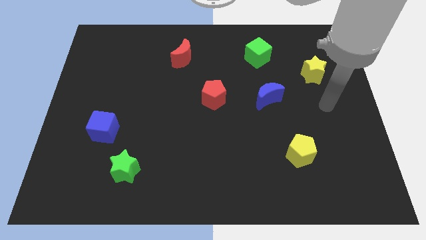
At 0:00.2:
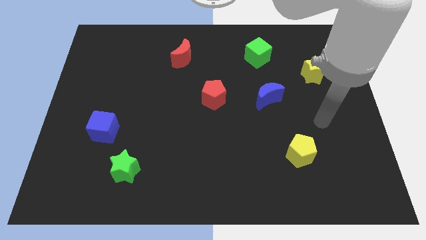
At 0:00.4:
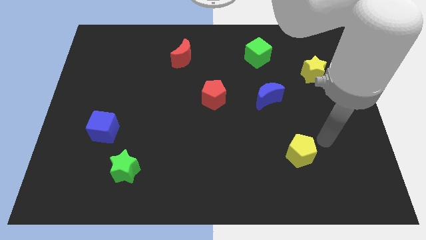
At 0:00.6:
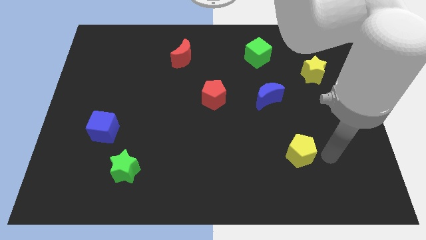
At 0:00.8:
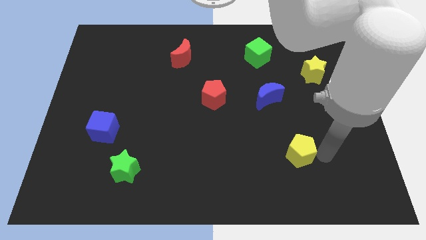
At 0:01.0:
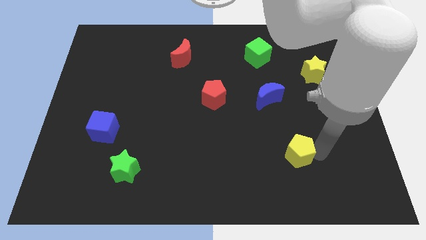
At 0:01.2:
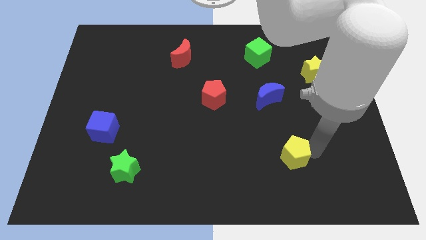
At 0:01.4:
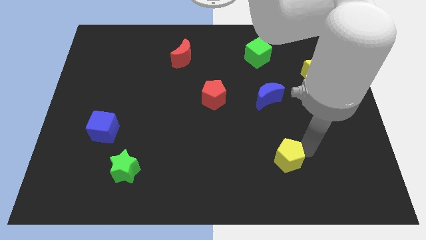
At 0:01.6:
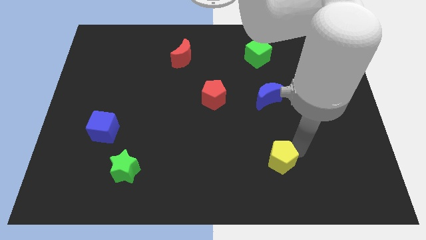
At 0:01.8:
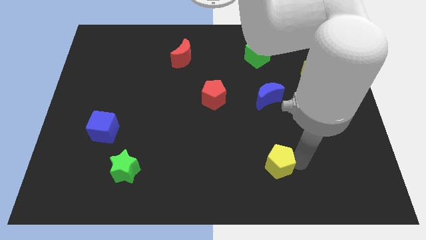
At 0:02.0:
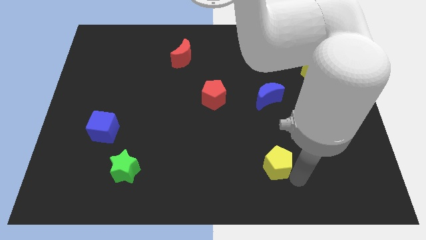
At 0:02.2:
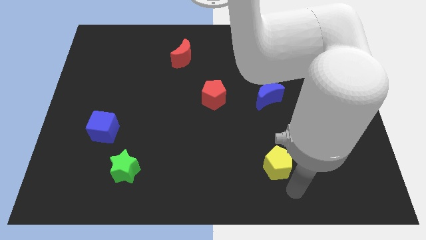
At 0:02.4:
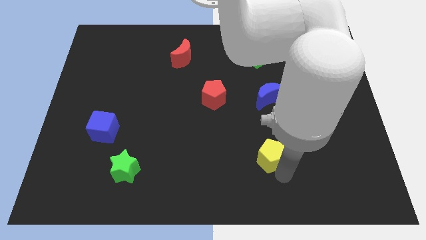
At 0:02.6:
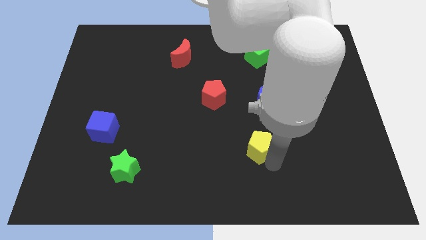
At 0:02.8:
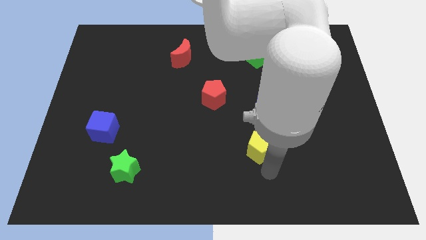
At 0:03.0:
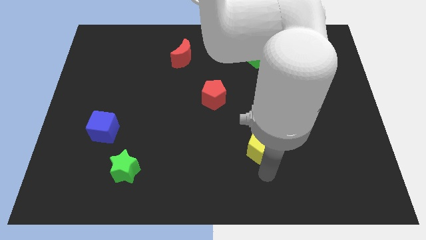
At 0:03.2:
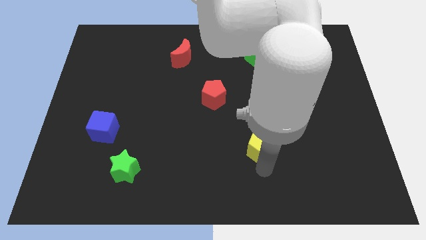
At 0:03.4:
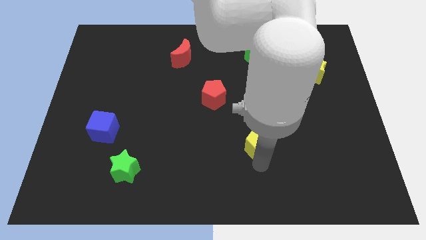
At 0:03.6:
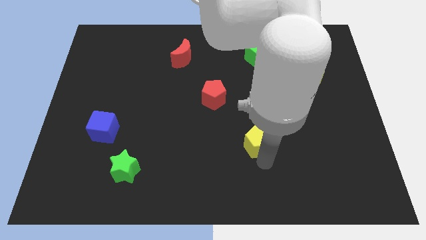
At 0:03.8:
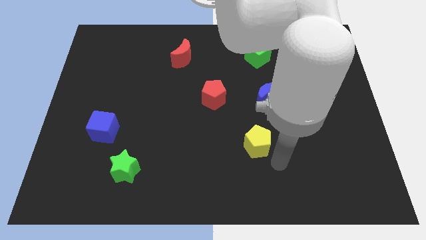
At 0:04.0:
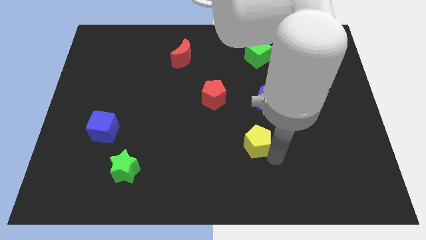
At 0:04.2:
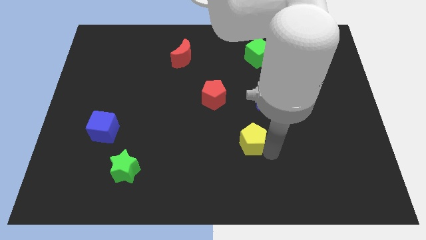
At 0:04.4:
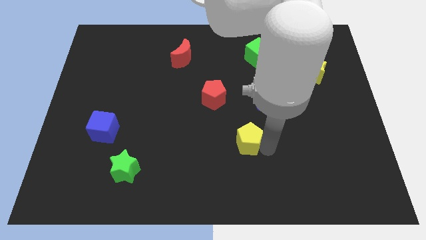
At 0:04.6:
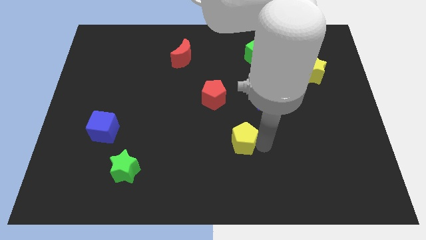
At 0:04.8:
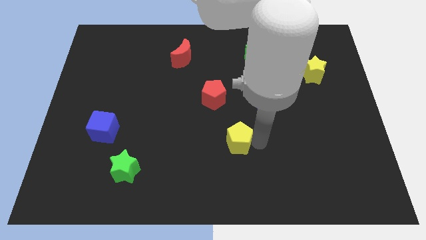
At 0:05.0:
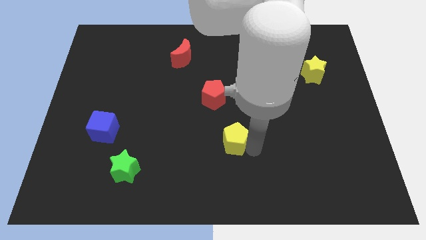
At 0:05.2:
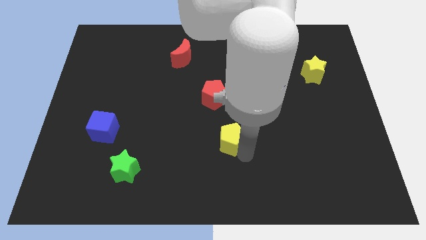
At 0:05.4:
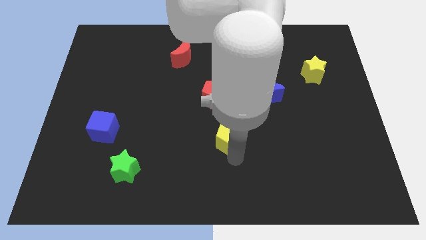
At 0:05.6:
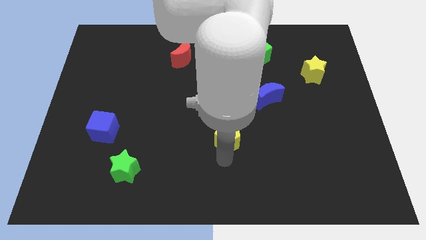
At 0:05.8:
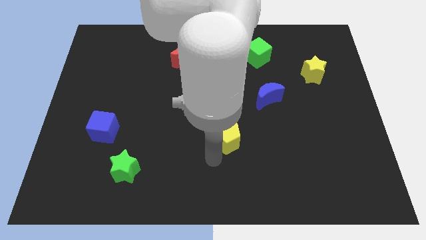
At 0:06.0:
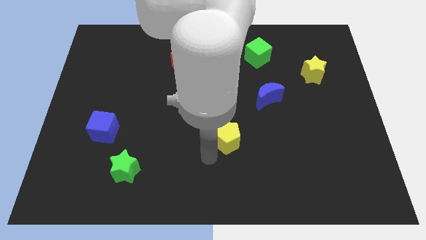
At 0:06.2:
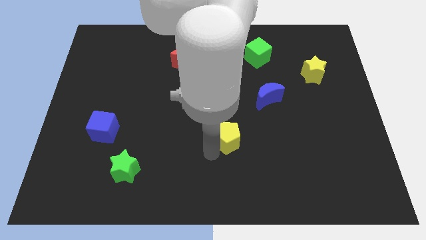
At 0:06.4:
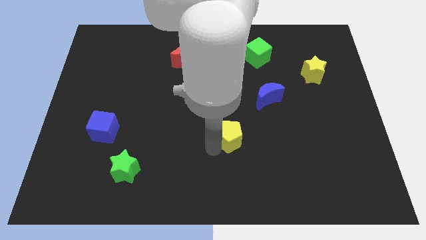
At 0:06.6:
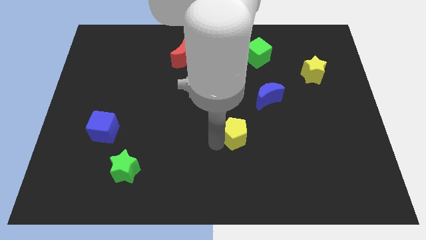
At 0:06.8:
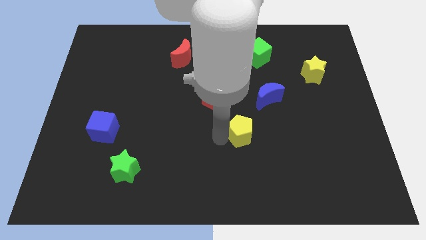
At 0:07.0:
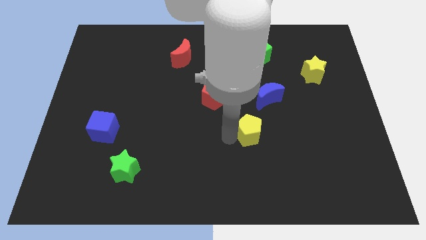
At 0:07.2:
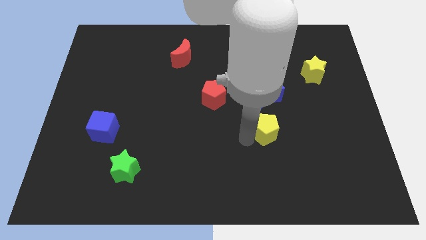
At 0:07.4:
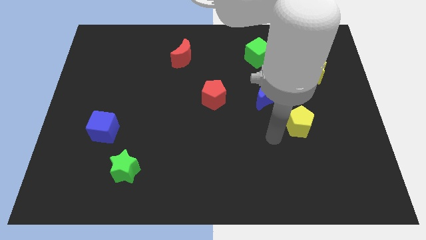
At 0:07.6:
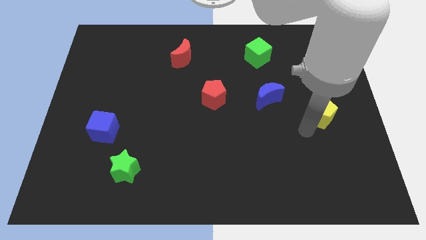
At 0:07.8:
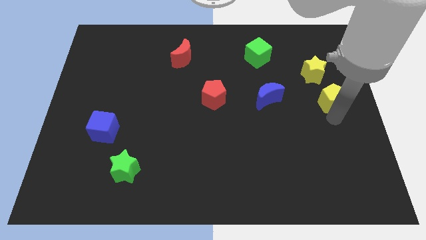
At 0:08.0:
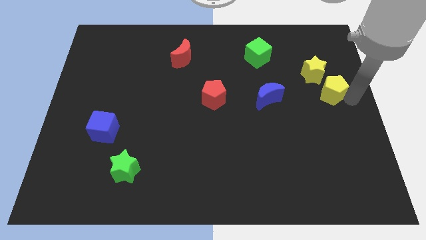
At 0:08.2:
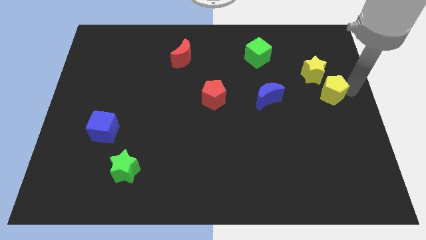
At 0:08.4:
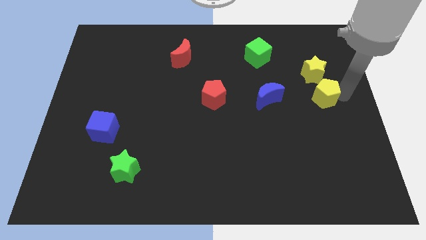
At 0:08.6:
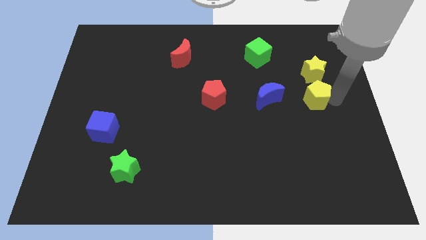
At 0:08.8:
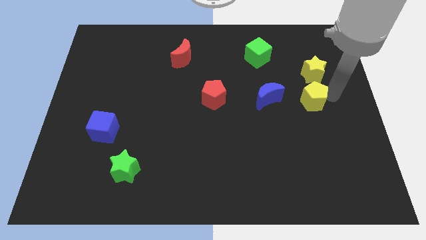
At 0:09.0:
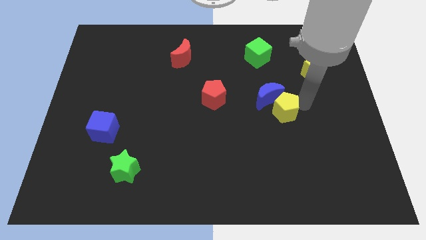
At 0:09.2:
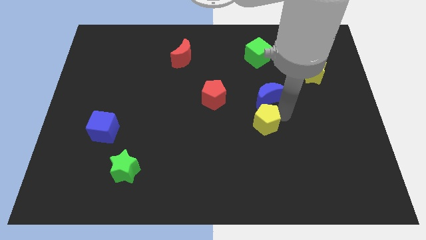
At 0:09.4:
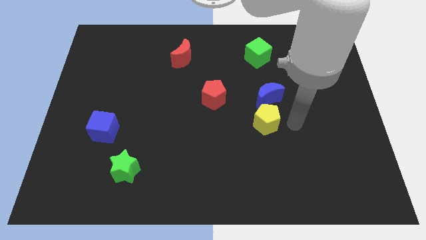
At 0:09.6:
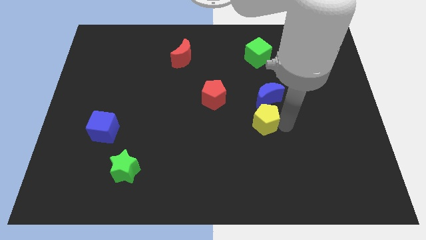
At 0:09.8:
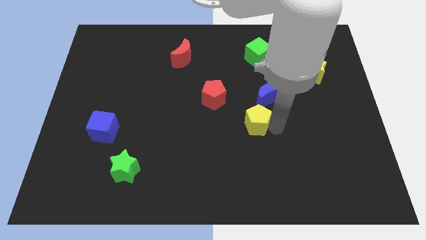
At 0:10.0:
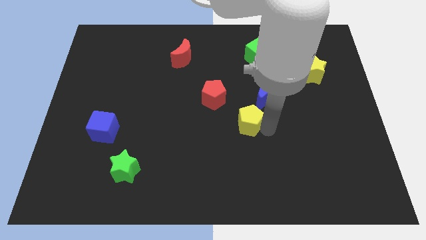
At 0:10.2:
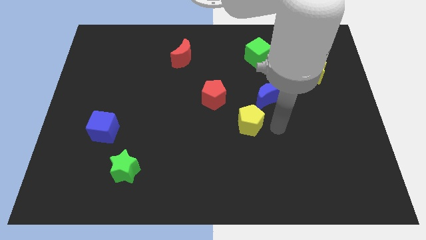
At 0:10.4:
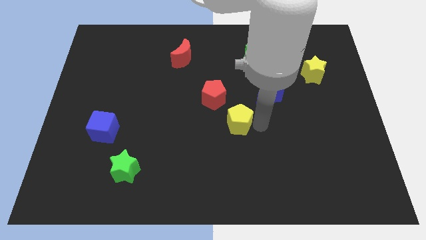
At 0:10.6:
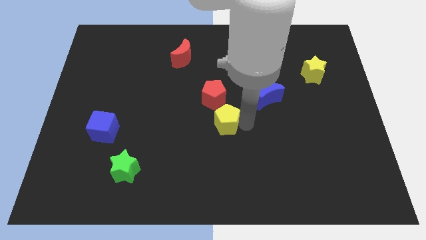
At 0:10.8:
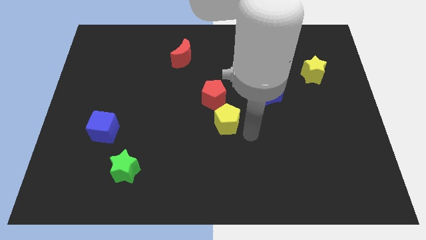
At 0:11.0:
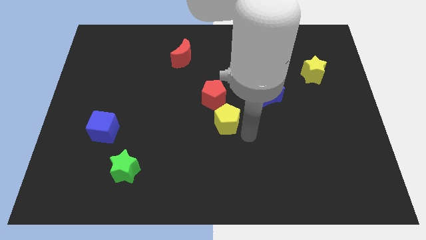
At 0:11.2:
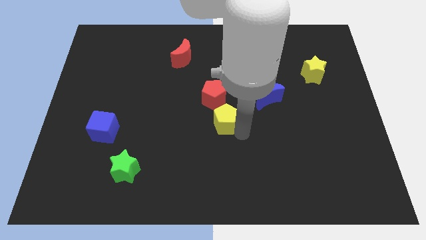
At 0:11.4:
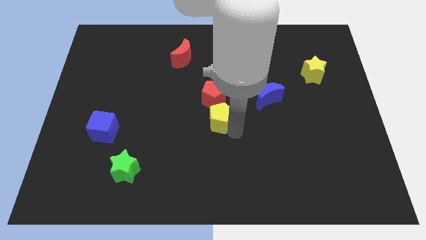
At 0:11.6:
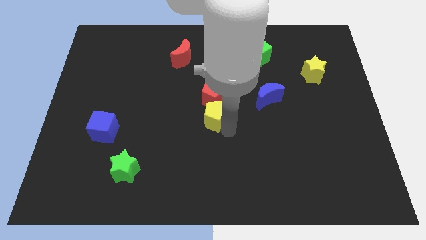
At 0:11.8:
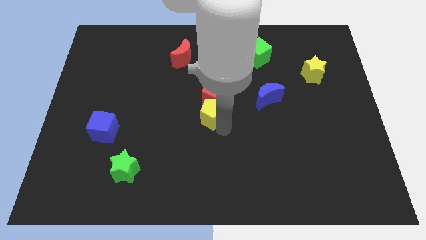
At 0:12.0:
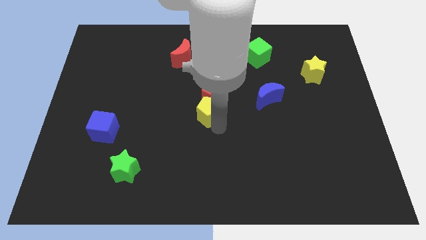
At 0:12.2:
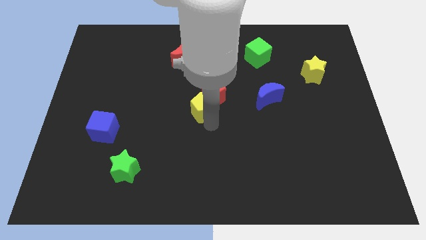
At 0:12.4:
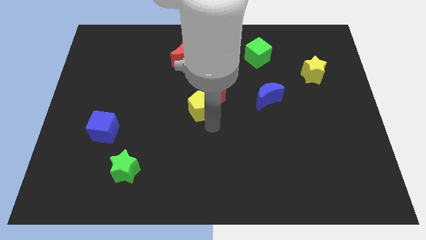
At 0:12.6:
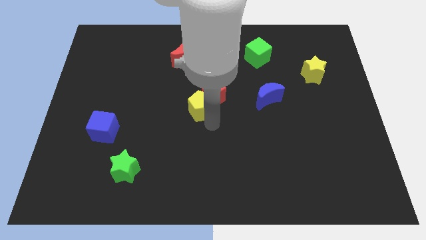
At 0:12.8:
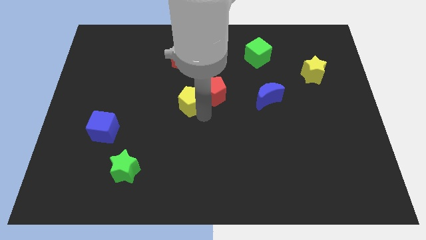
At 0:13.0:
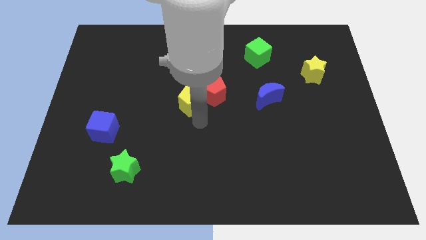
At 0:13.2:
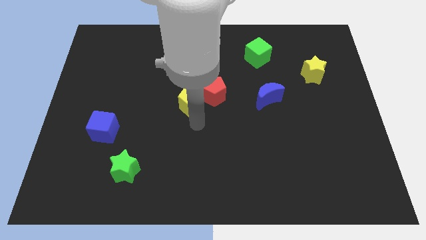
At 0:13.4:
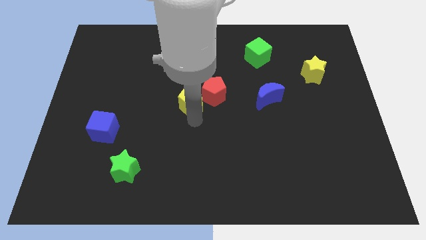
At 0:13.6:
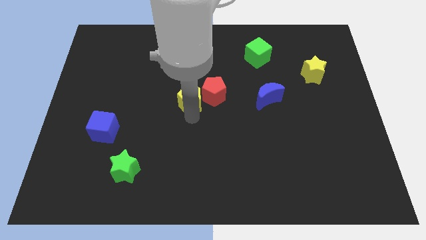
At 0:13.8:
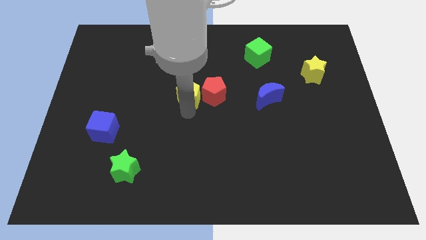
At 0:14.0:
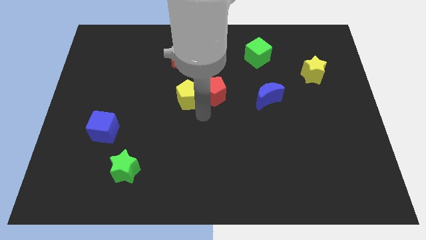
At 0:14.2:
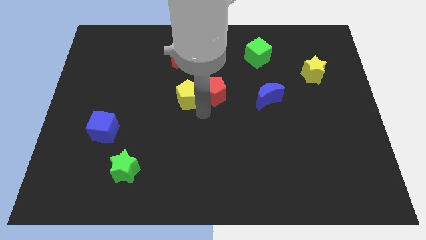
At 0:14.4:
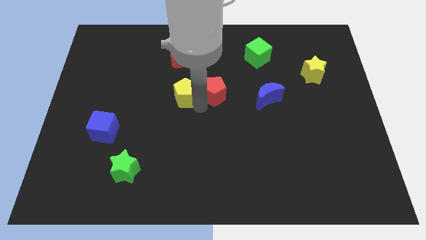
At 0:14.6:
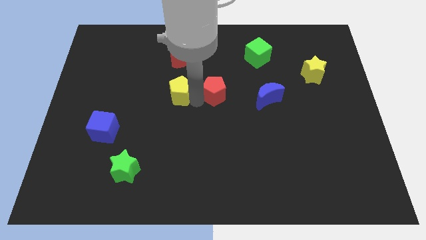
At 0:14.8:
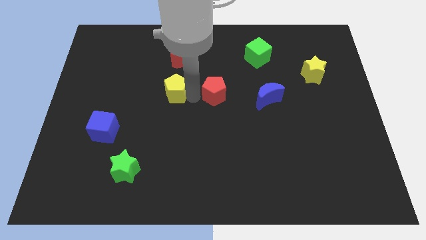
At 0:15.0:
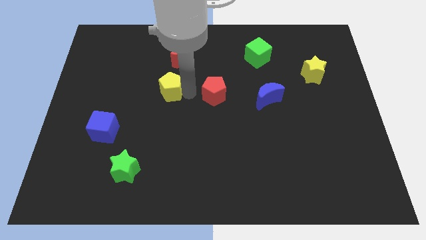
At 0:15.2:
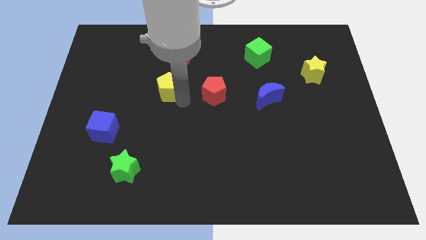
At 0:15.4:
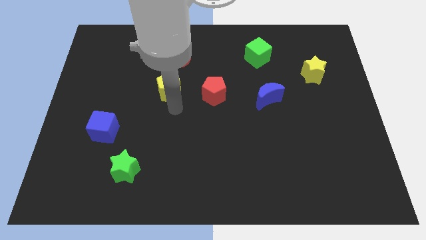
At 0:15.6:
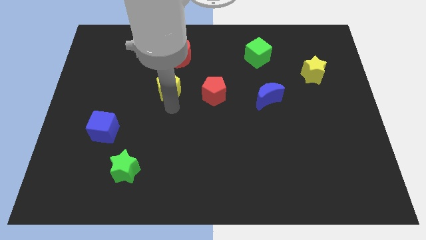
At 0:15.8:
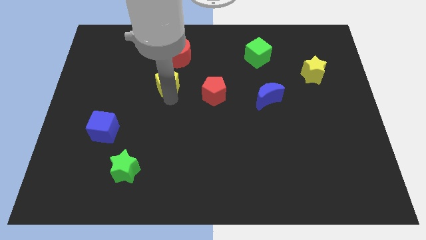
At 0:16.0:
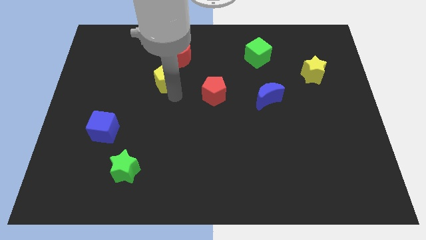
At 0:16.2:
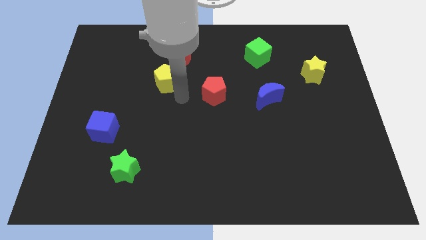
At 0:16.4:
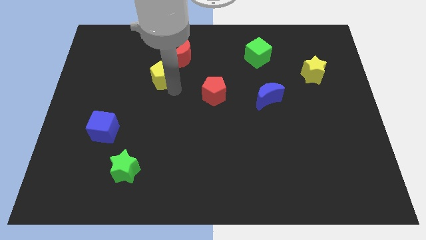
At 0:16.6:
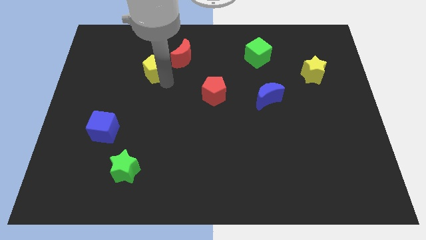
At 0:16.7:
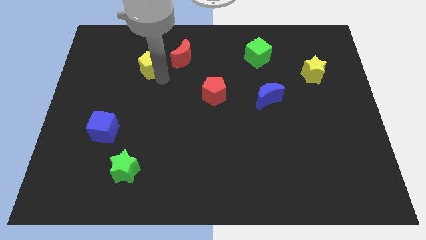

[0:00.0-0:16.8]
put the yellow pentagon to the left side of the red moon
